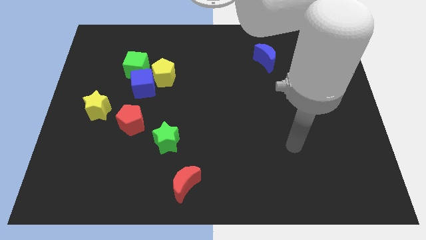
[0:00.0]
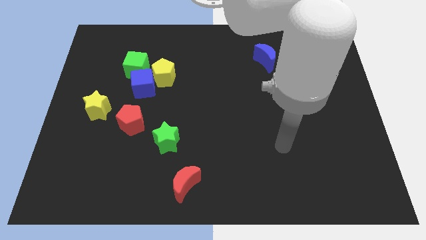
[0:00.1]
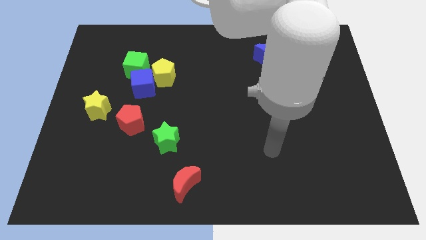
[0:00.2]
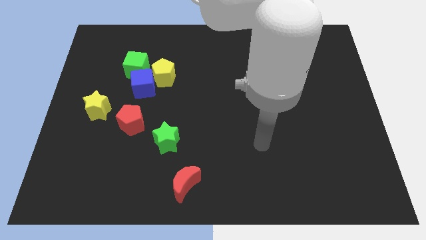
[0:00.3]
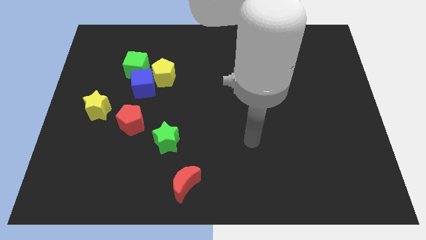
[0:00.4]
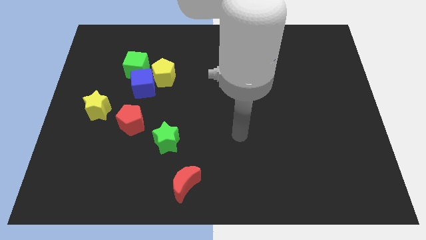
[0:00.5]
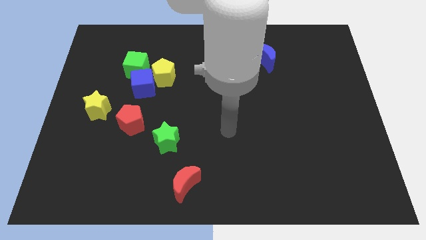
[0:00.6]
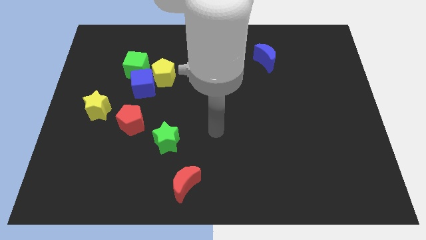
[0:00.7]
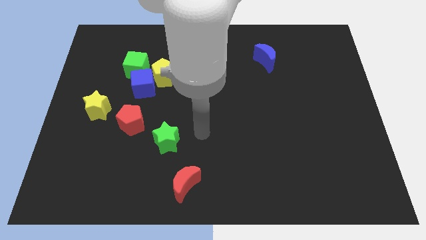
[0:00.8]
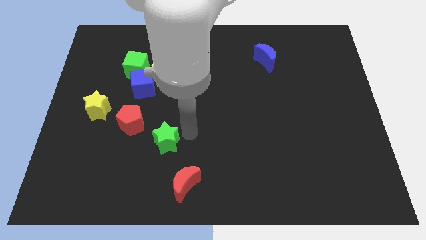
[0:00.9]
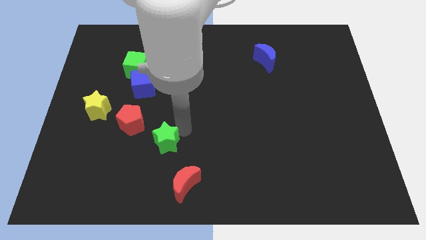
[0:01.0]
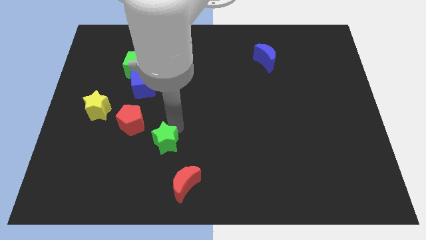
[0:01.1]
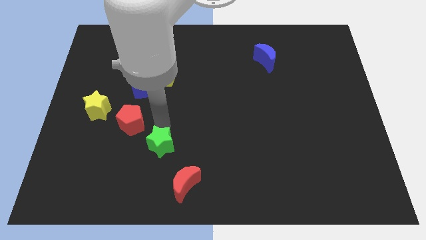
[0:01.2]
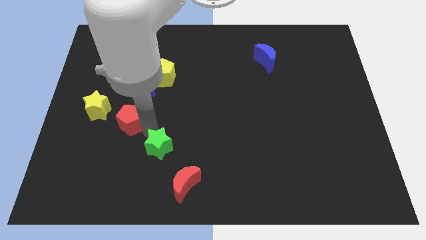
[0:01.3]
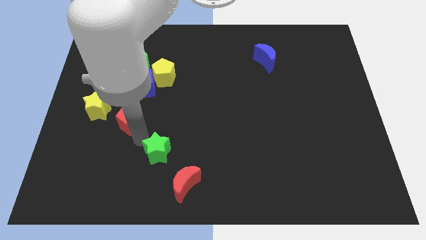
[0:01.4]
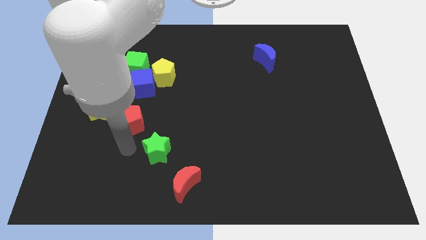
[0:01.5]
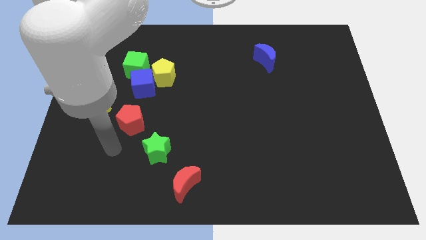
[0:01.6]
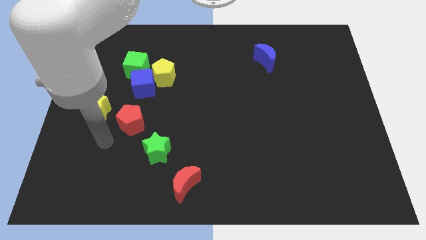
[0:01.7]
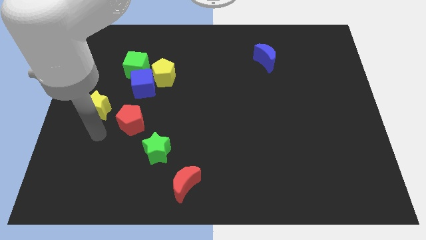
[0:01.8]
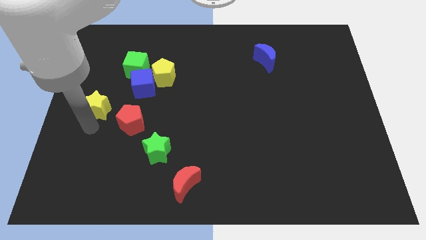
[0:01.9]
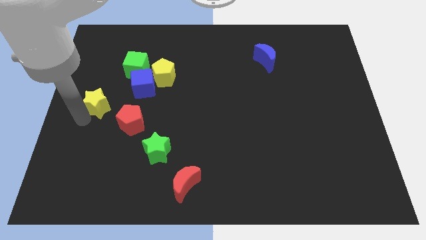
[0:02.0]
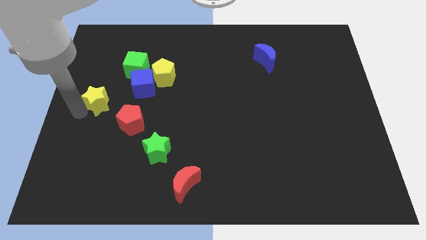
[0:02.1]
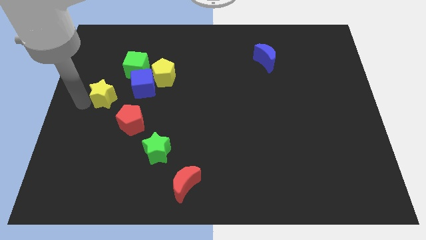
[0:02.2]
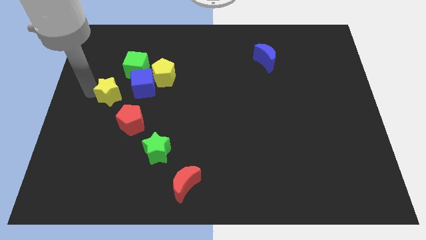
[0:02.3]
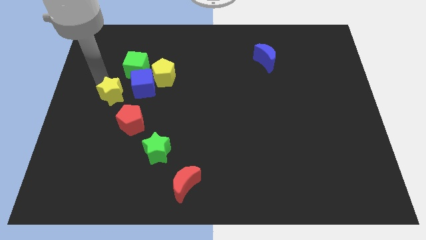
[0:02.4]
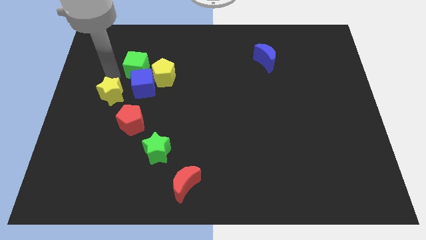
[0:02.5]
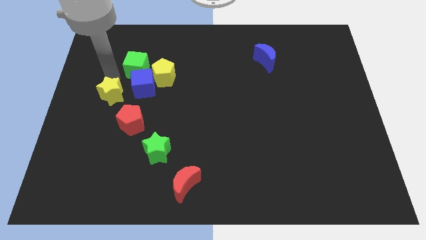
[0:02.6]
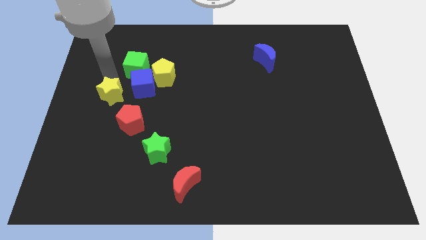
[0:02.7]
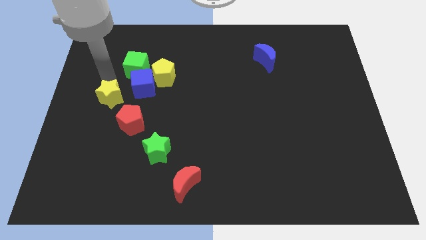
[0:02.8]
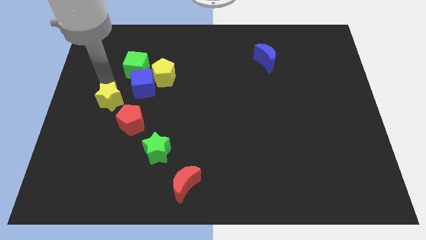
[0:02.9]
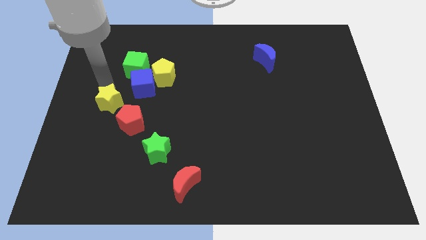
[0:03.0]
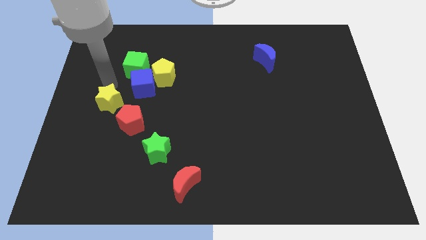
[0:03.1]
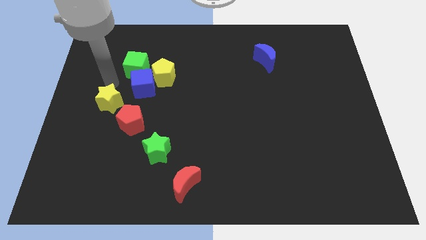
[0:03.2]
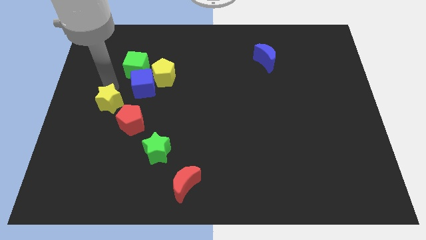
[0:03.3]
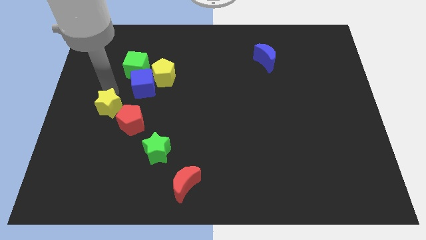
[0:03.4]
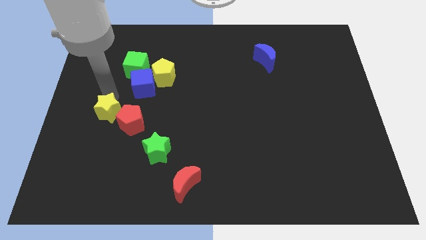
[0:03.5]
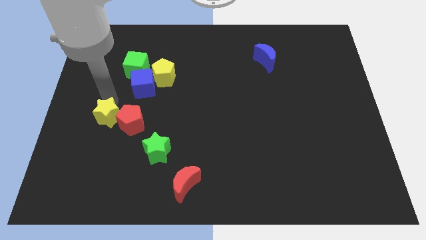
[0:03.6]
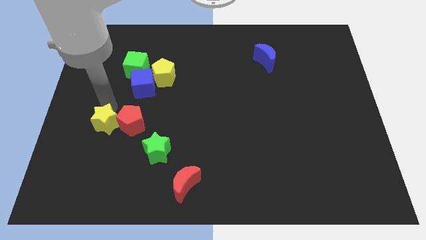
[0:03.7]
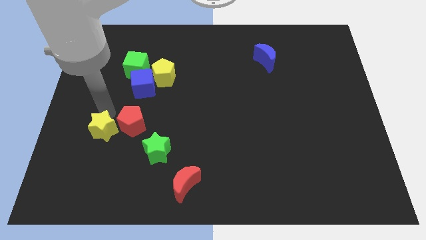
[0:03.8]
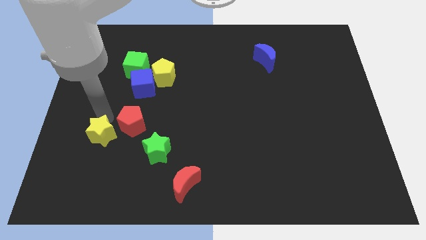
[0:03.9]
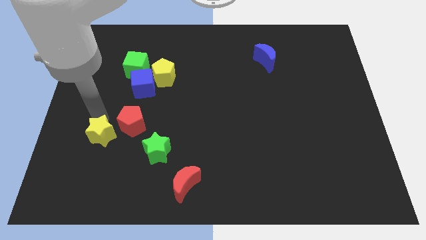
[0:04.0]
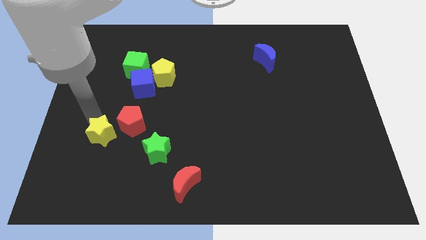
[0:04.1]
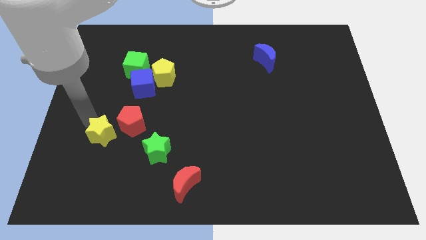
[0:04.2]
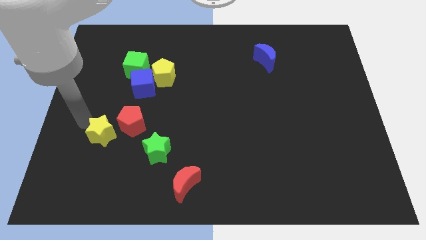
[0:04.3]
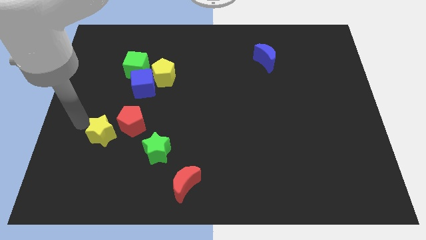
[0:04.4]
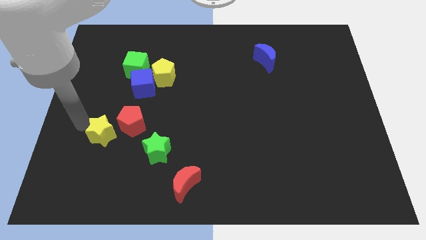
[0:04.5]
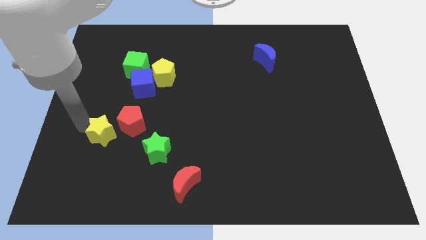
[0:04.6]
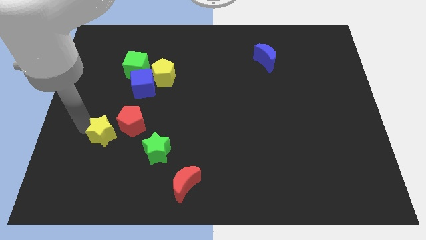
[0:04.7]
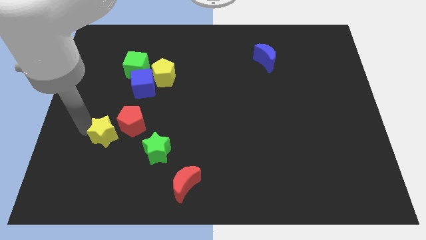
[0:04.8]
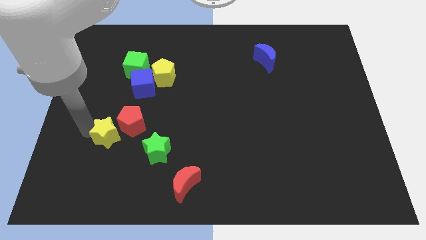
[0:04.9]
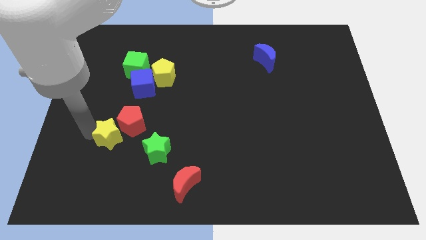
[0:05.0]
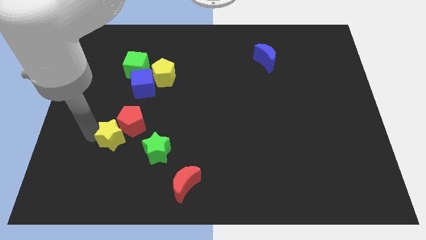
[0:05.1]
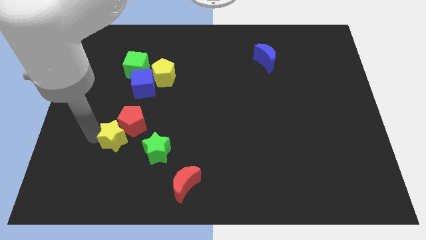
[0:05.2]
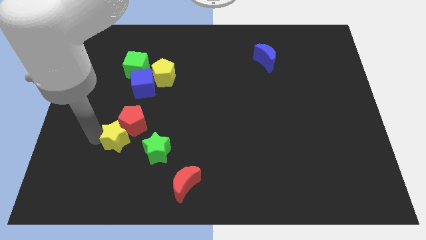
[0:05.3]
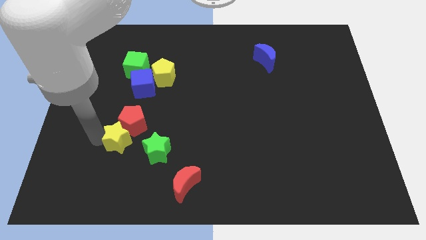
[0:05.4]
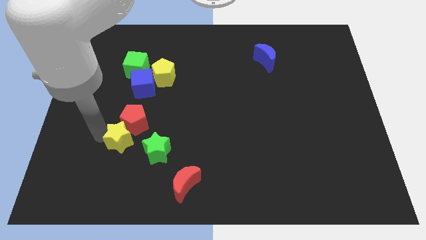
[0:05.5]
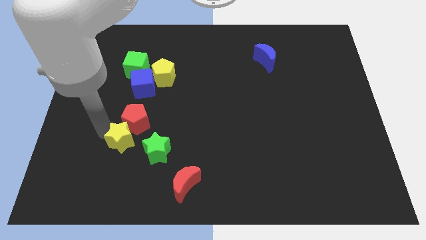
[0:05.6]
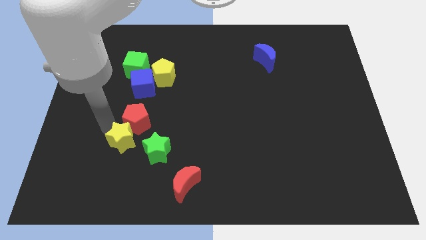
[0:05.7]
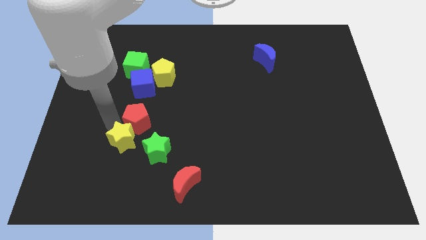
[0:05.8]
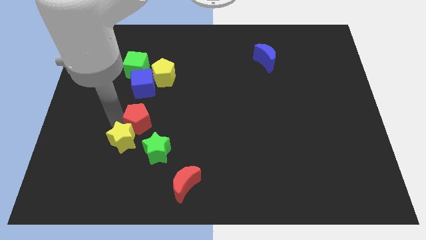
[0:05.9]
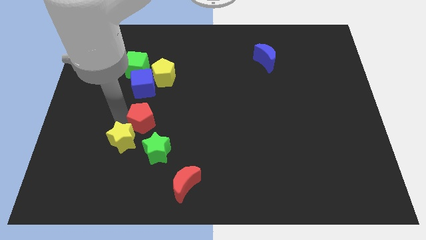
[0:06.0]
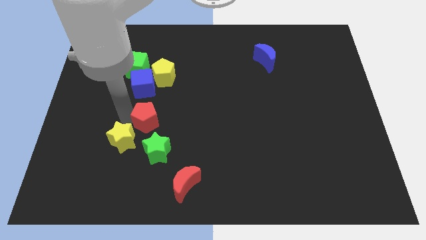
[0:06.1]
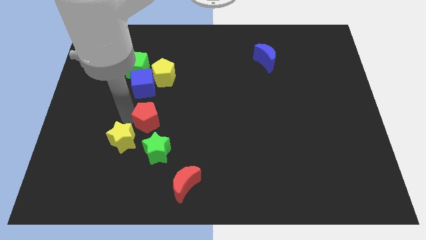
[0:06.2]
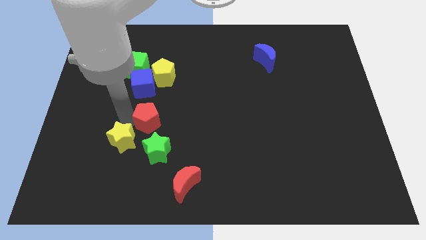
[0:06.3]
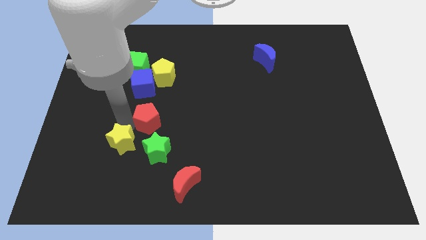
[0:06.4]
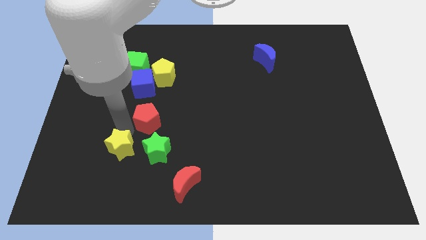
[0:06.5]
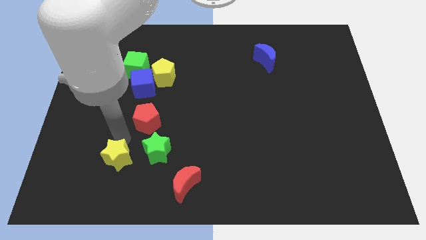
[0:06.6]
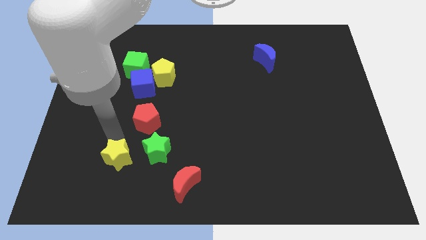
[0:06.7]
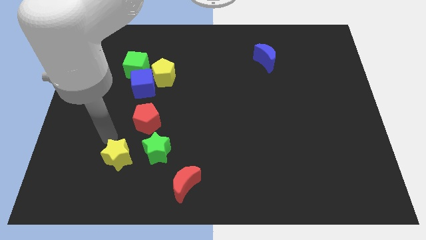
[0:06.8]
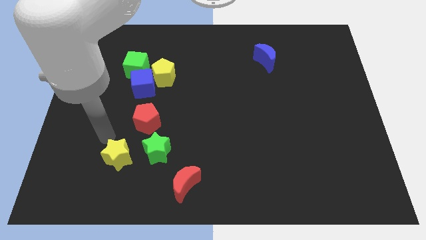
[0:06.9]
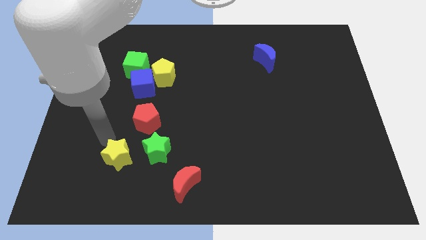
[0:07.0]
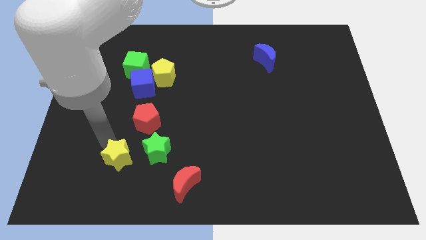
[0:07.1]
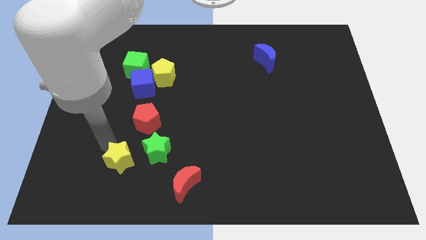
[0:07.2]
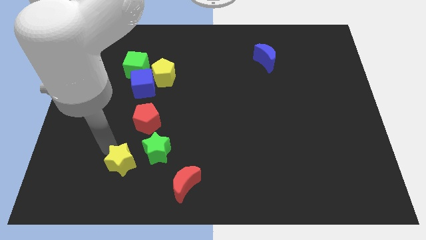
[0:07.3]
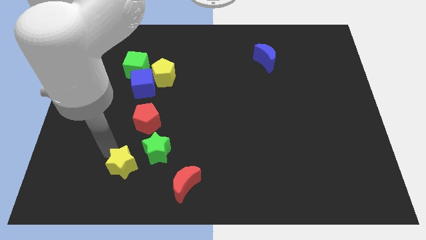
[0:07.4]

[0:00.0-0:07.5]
slide the yellow star to the left side of the red moon
